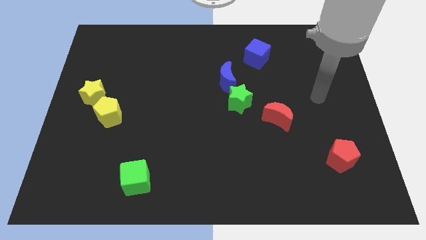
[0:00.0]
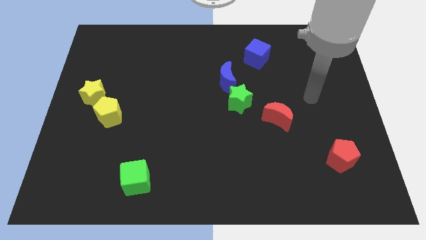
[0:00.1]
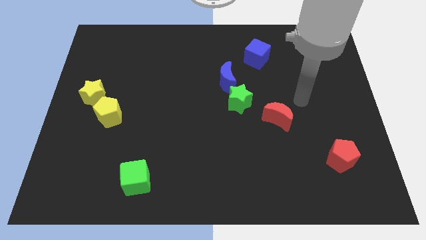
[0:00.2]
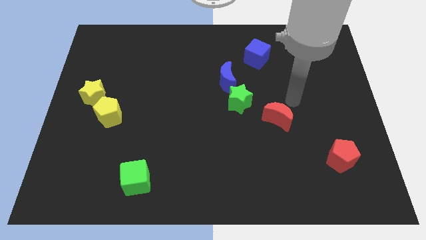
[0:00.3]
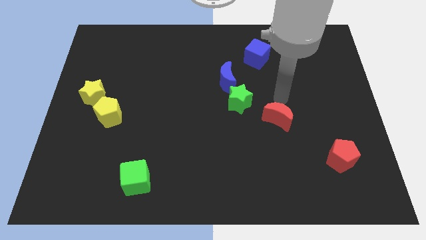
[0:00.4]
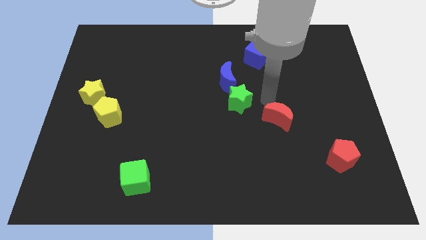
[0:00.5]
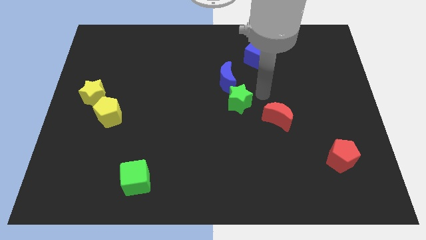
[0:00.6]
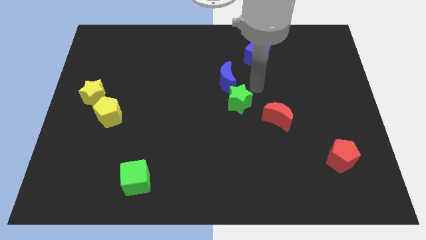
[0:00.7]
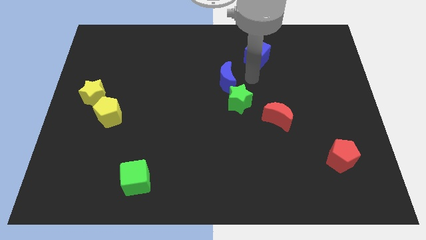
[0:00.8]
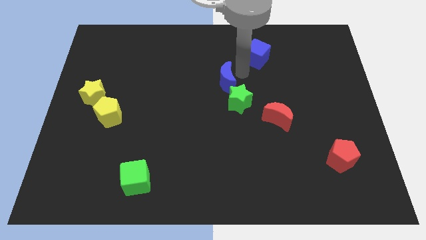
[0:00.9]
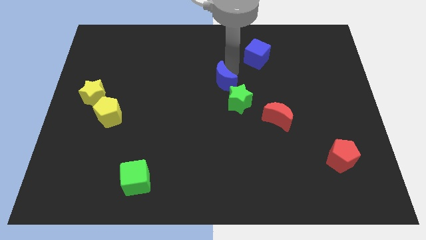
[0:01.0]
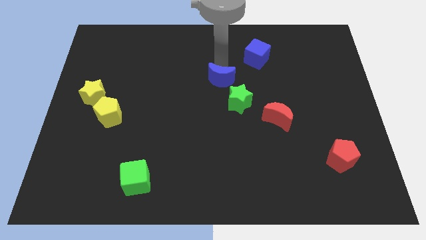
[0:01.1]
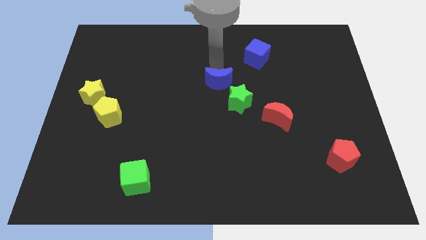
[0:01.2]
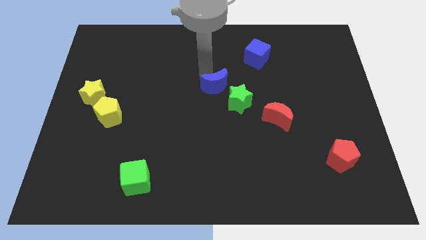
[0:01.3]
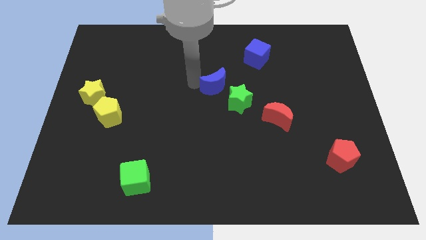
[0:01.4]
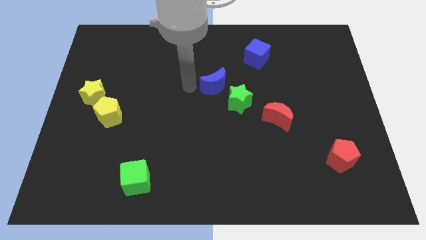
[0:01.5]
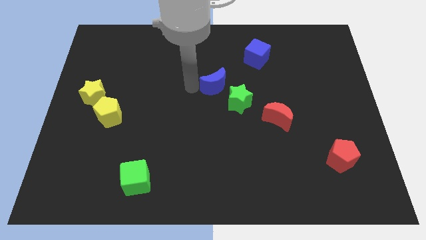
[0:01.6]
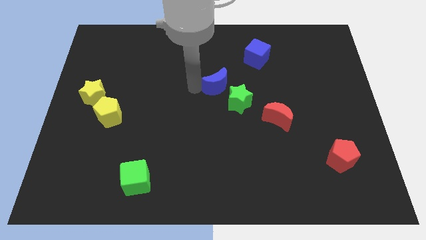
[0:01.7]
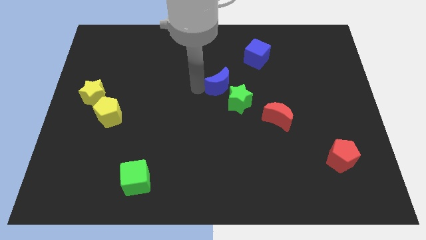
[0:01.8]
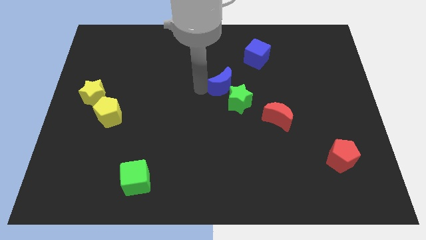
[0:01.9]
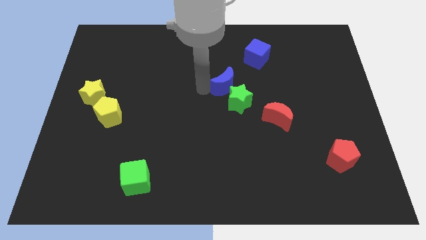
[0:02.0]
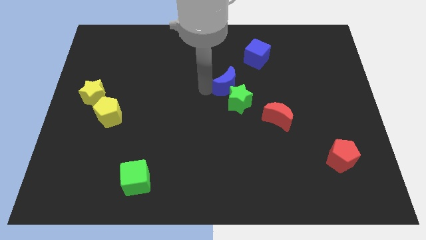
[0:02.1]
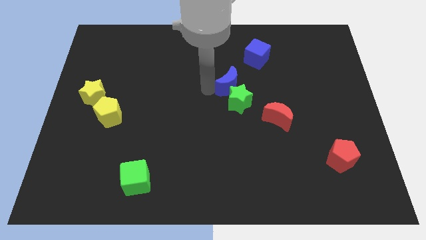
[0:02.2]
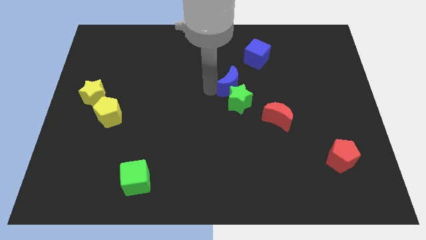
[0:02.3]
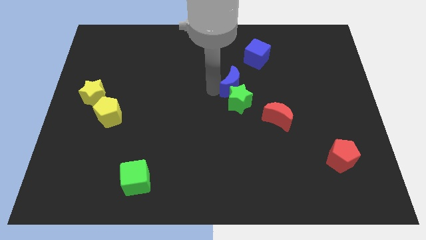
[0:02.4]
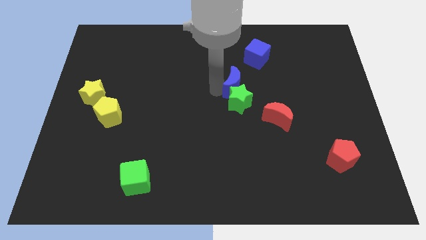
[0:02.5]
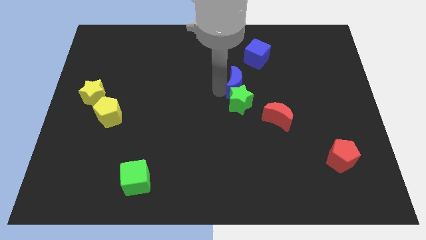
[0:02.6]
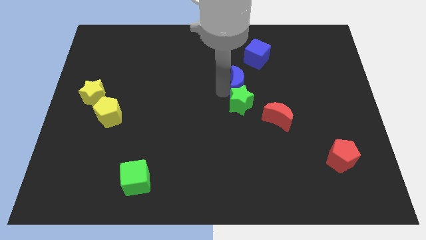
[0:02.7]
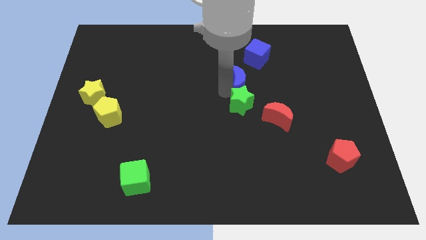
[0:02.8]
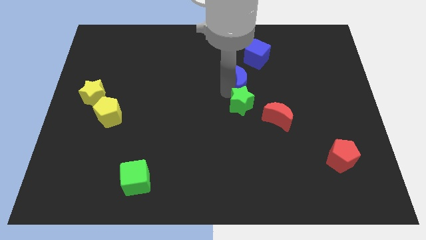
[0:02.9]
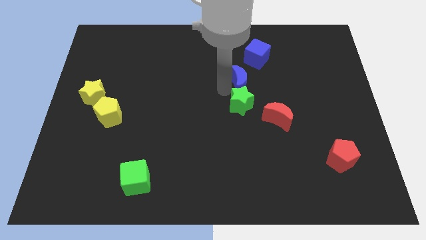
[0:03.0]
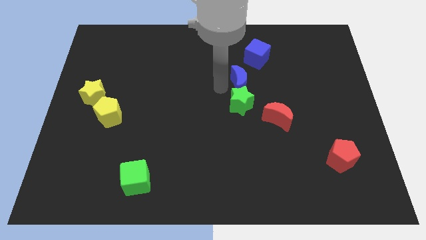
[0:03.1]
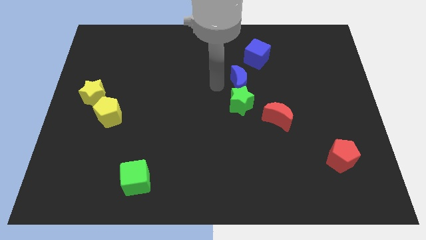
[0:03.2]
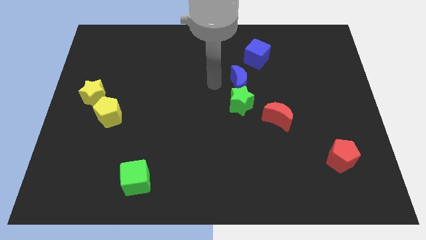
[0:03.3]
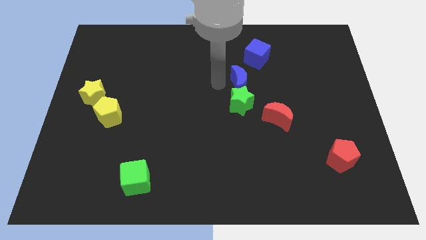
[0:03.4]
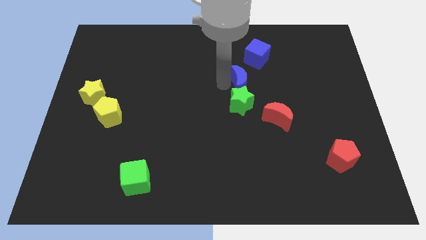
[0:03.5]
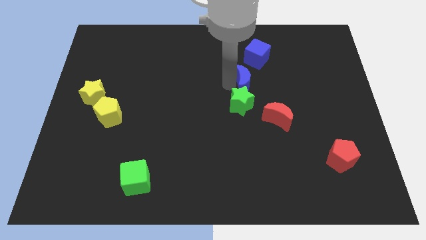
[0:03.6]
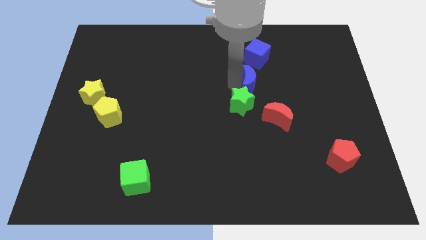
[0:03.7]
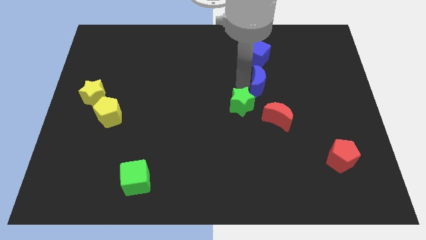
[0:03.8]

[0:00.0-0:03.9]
push the blue moon to the right slightly

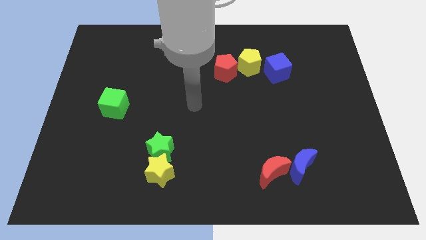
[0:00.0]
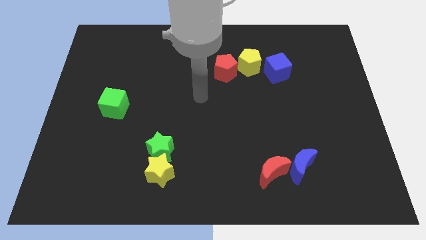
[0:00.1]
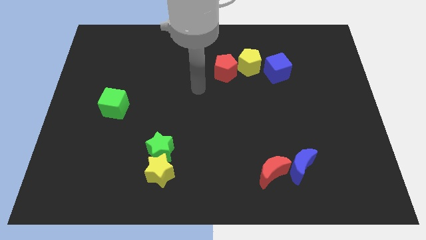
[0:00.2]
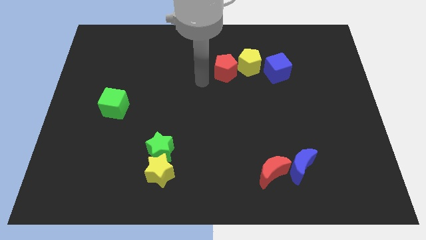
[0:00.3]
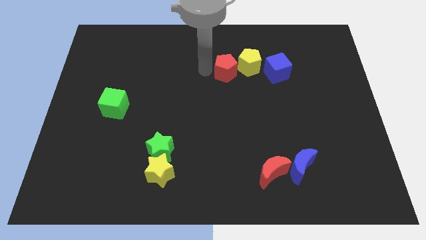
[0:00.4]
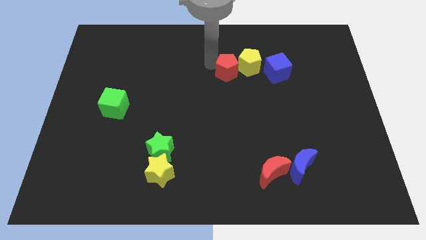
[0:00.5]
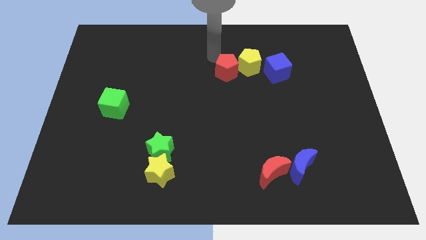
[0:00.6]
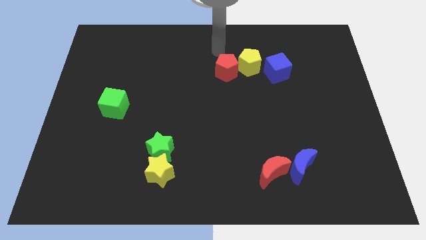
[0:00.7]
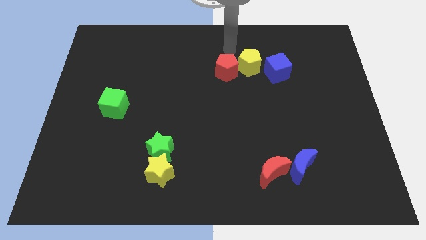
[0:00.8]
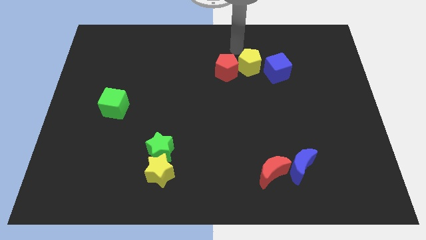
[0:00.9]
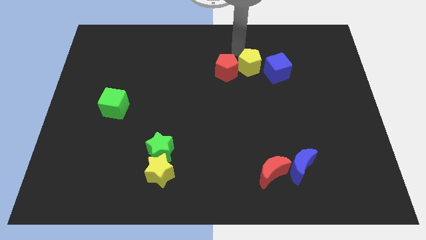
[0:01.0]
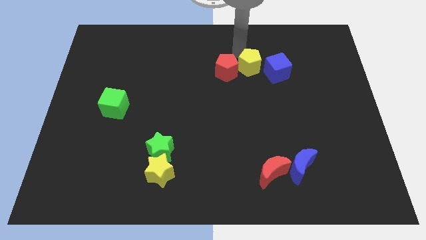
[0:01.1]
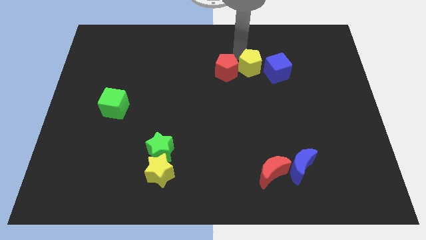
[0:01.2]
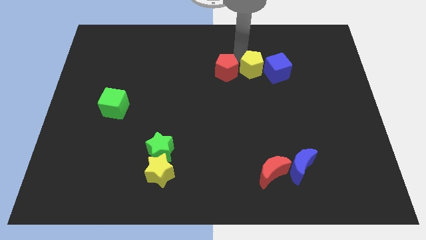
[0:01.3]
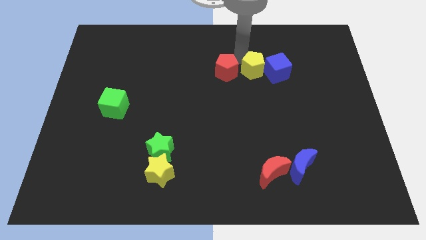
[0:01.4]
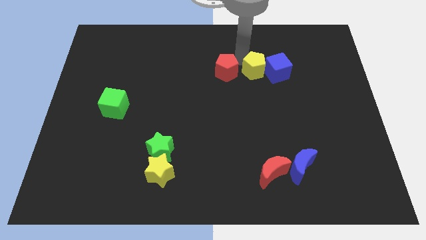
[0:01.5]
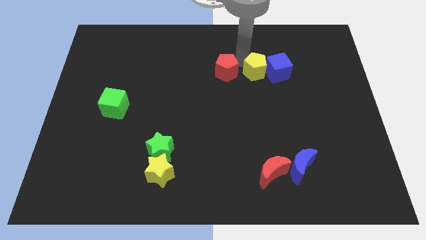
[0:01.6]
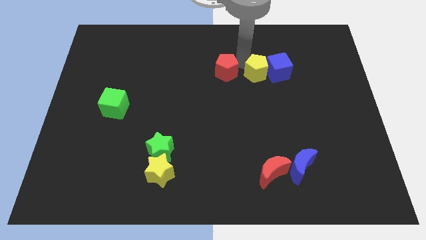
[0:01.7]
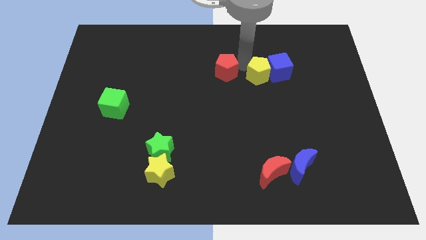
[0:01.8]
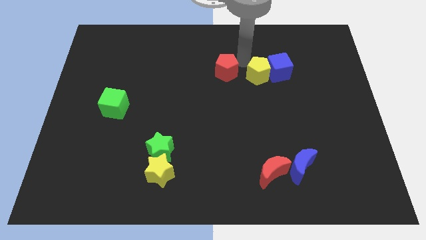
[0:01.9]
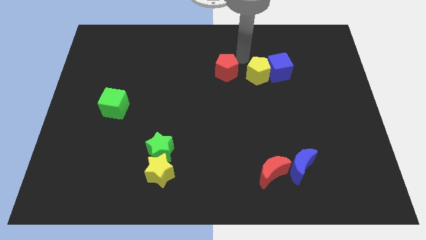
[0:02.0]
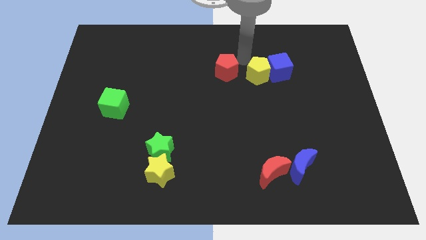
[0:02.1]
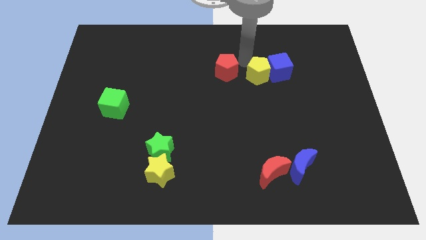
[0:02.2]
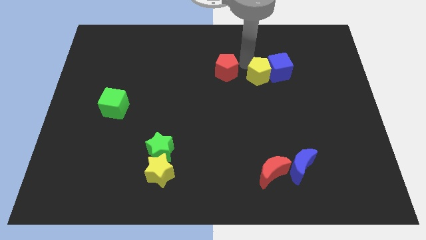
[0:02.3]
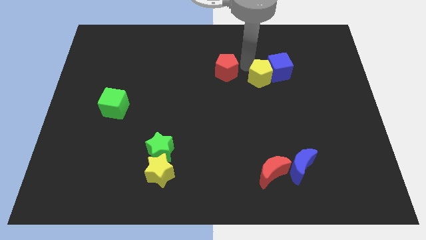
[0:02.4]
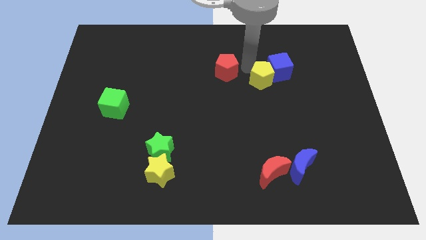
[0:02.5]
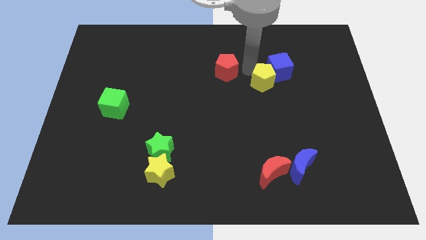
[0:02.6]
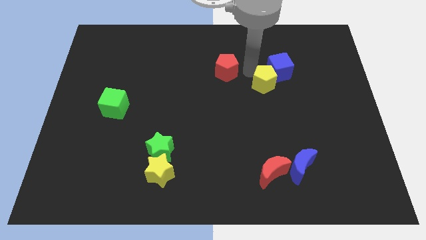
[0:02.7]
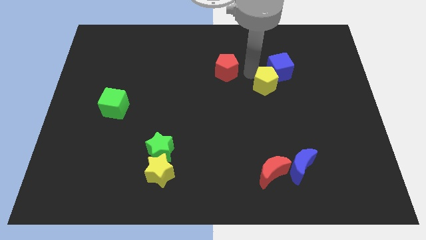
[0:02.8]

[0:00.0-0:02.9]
slightly slide the yellow pentagon downwards and to the right

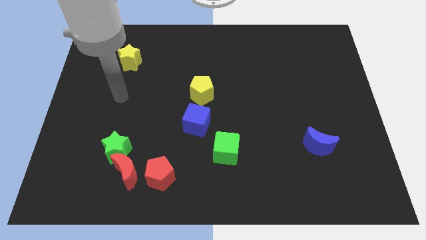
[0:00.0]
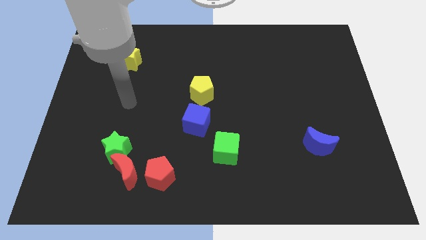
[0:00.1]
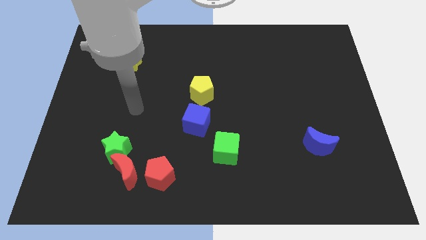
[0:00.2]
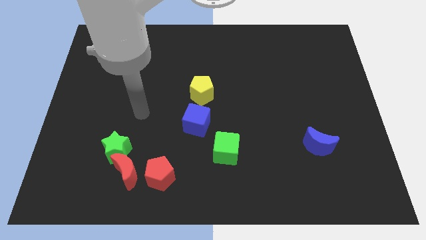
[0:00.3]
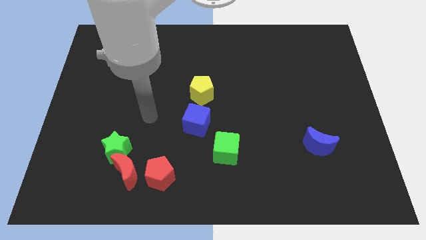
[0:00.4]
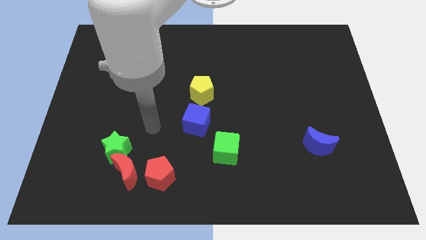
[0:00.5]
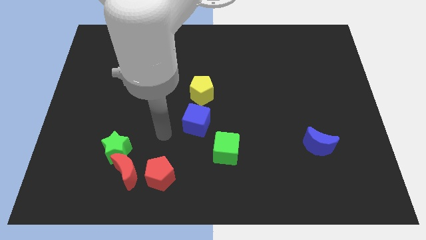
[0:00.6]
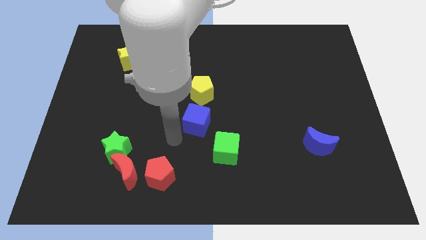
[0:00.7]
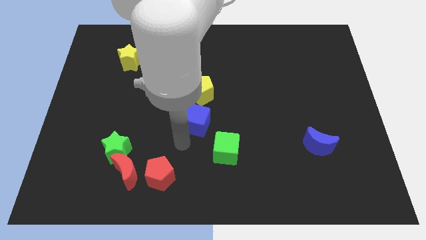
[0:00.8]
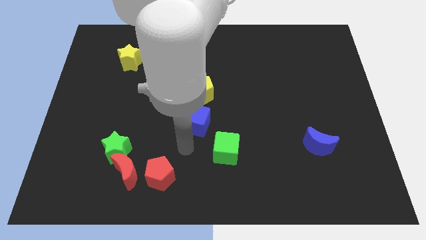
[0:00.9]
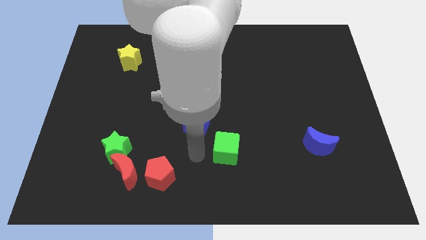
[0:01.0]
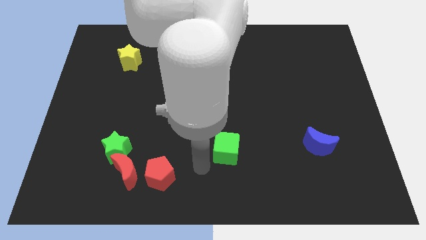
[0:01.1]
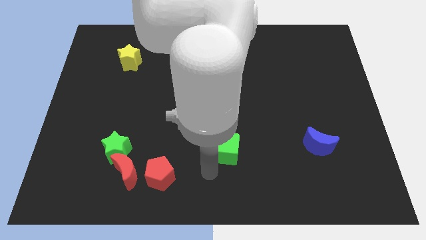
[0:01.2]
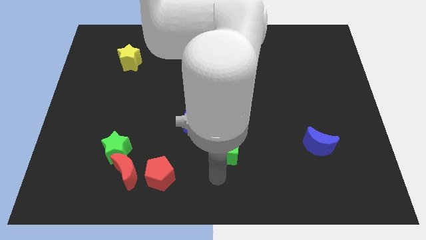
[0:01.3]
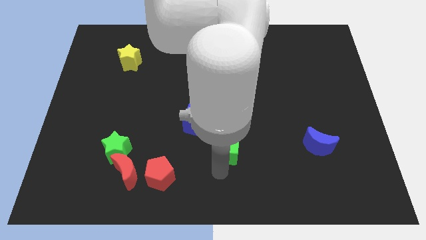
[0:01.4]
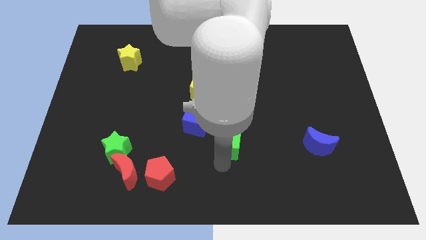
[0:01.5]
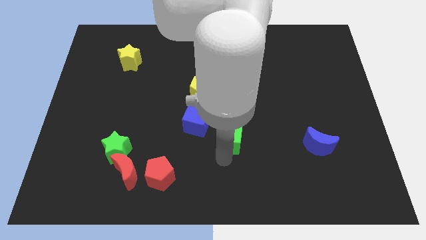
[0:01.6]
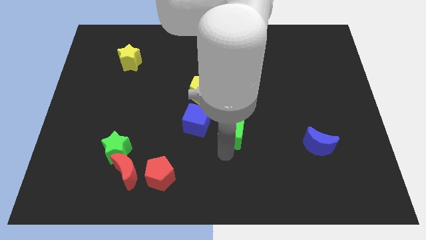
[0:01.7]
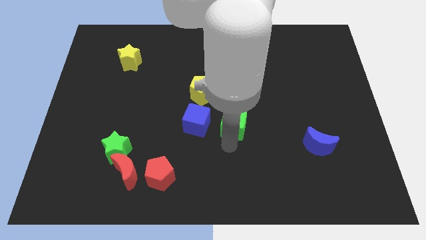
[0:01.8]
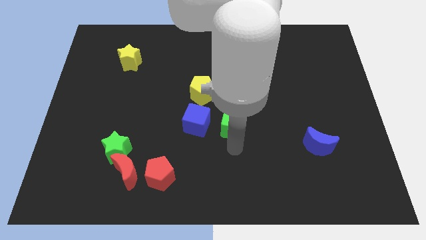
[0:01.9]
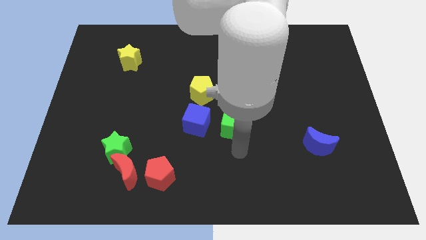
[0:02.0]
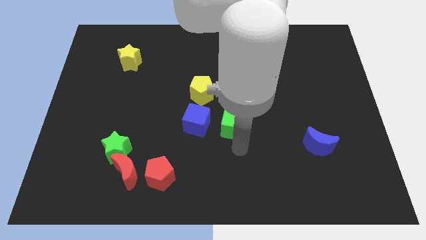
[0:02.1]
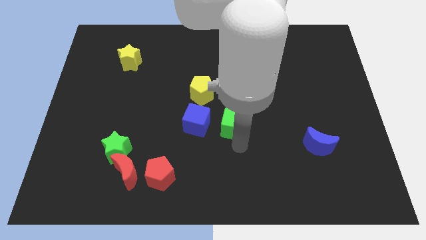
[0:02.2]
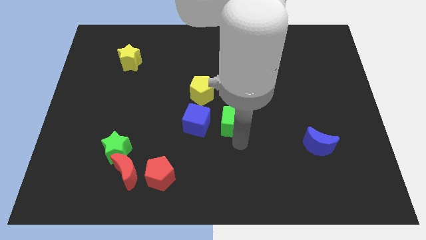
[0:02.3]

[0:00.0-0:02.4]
slide the green cube somewhat up
